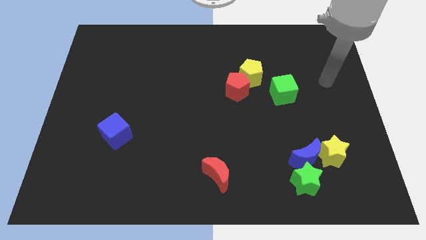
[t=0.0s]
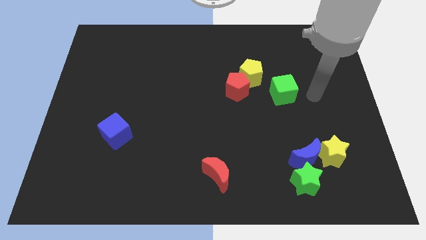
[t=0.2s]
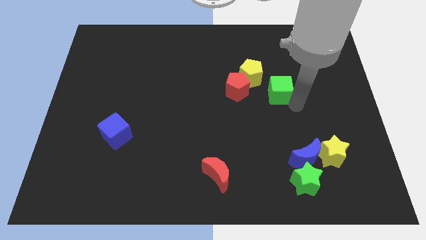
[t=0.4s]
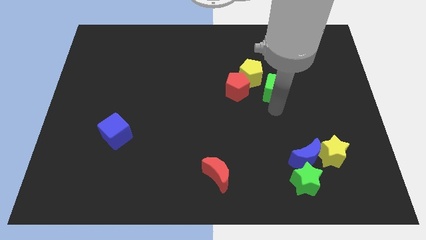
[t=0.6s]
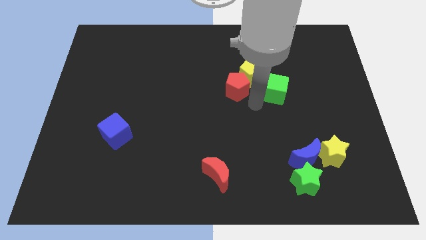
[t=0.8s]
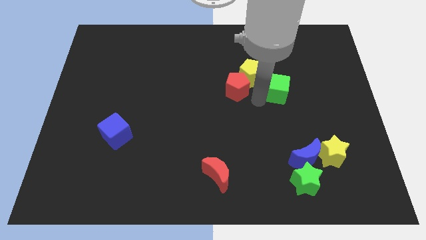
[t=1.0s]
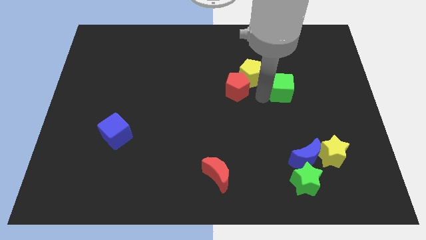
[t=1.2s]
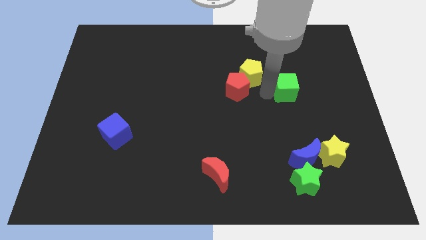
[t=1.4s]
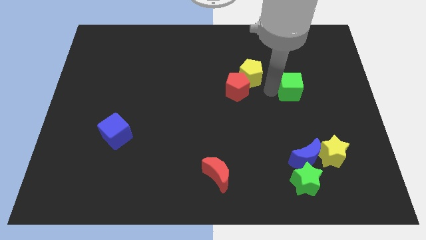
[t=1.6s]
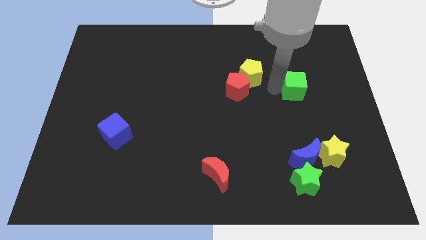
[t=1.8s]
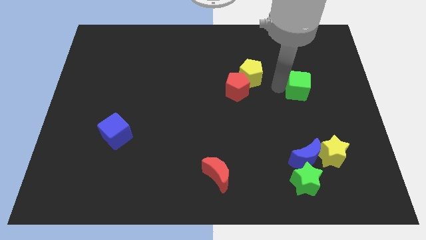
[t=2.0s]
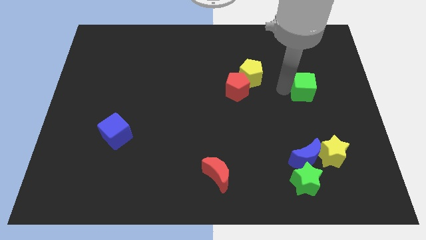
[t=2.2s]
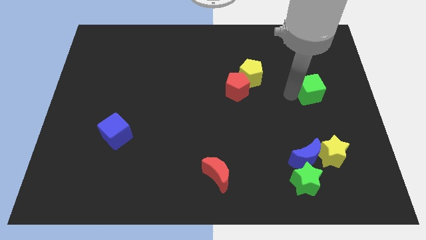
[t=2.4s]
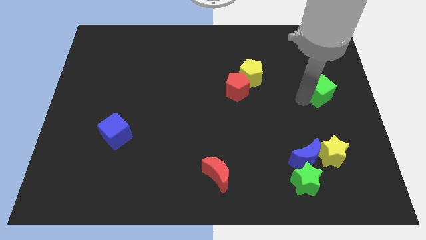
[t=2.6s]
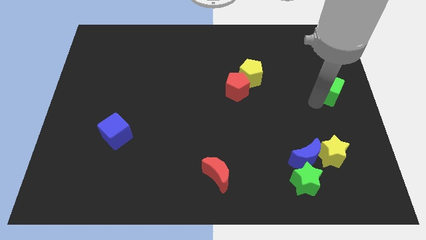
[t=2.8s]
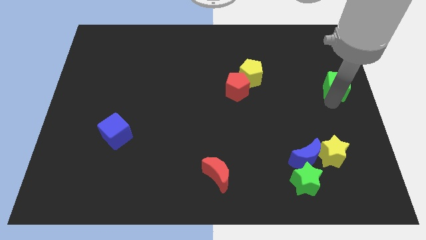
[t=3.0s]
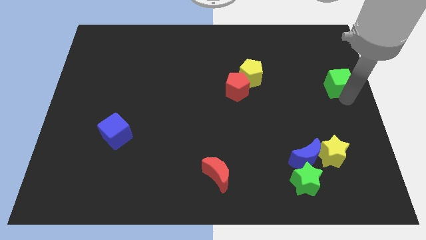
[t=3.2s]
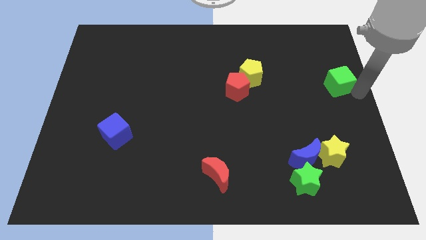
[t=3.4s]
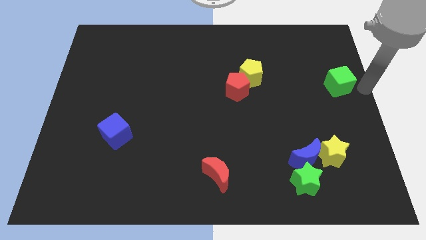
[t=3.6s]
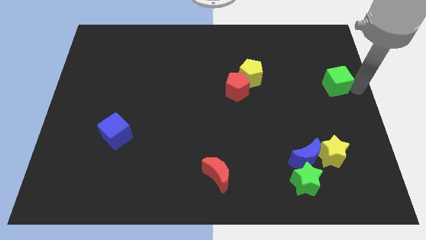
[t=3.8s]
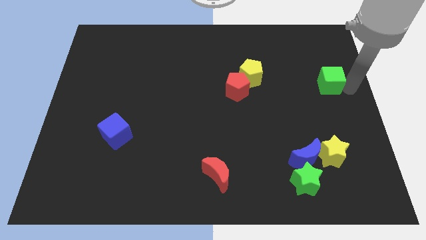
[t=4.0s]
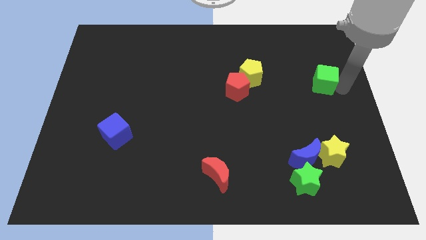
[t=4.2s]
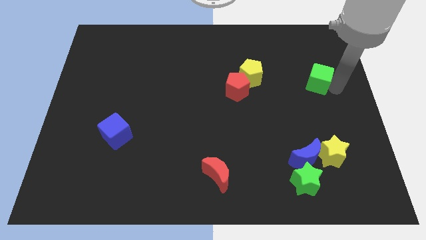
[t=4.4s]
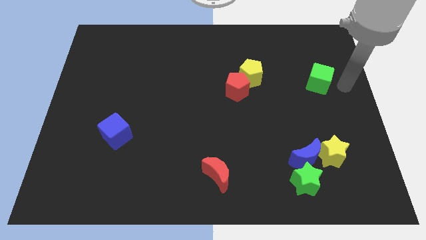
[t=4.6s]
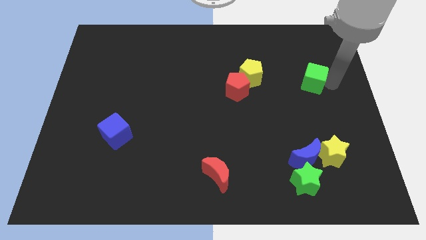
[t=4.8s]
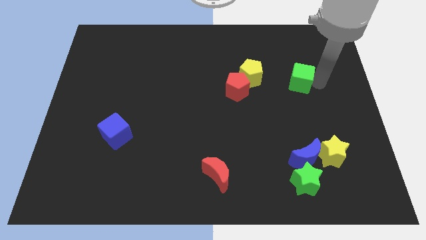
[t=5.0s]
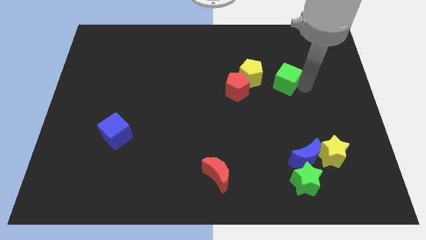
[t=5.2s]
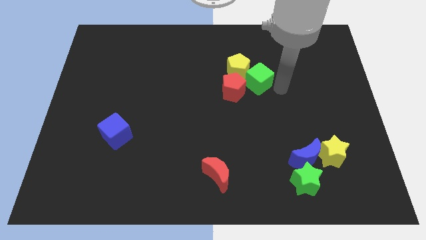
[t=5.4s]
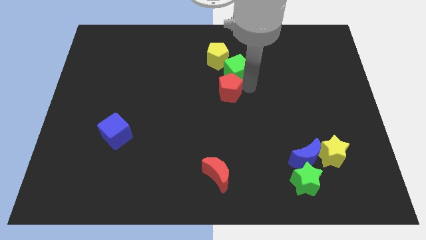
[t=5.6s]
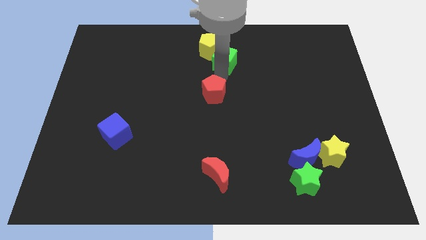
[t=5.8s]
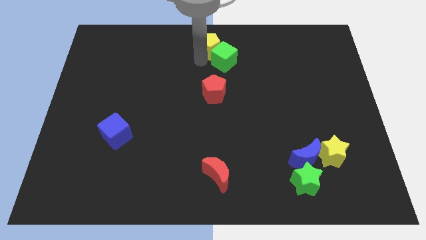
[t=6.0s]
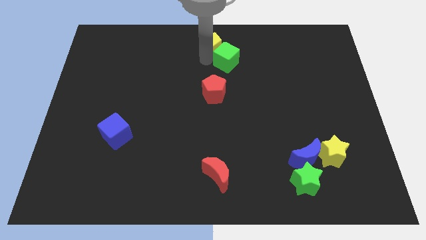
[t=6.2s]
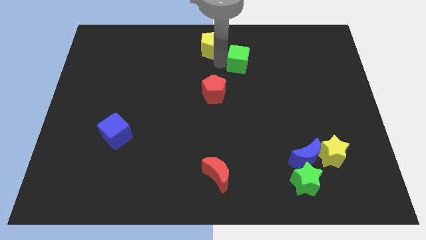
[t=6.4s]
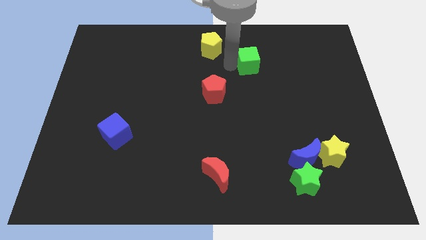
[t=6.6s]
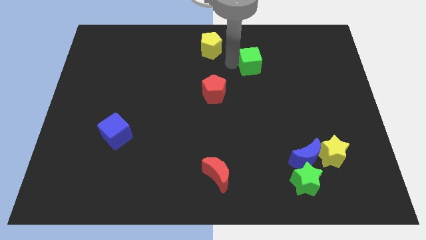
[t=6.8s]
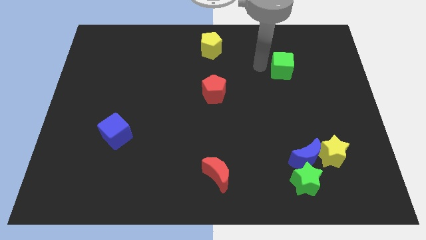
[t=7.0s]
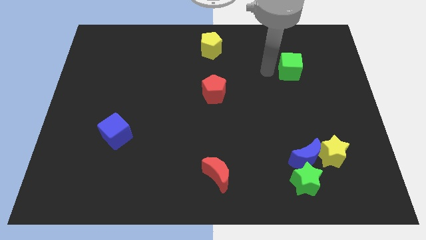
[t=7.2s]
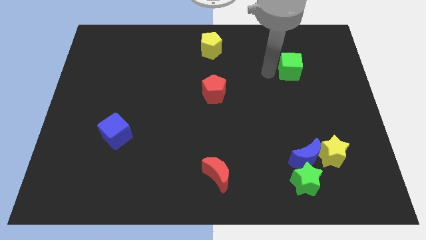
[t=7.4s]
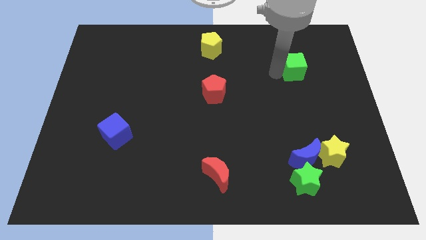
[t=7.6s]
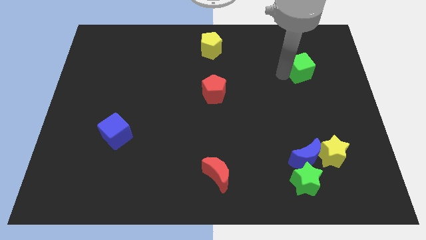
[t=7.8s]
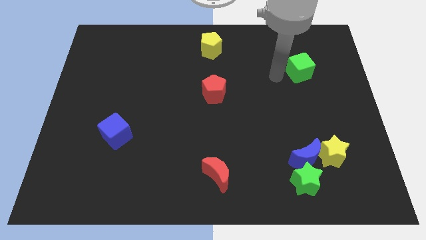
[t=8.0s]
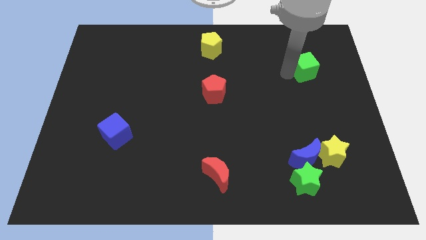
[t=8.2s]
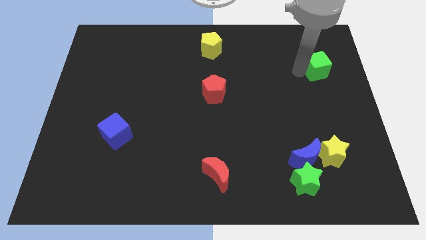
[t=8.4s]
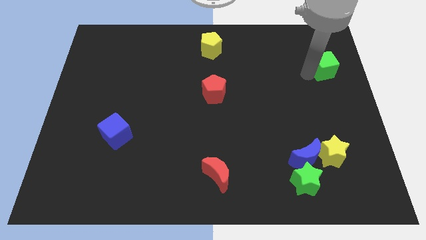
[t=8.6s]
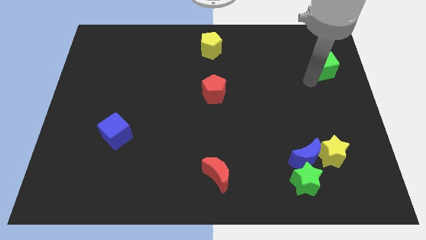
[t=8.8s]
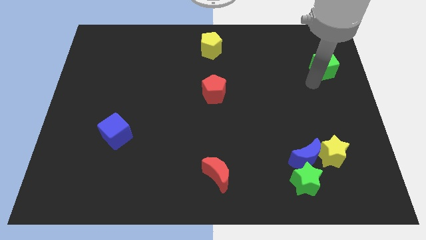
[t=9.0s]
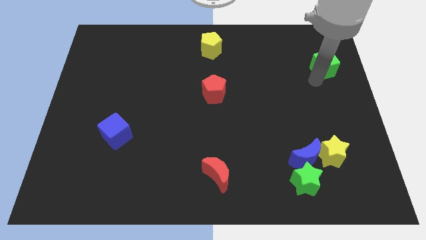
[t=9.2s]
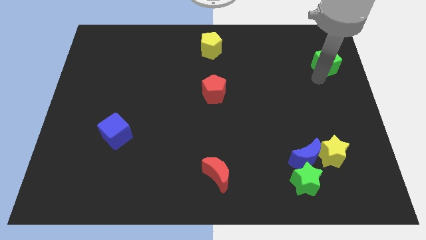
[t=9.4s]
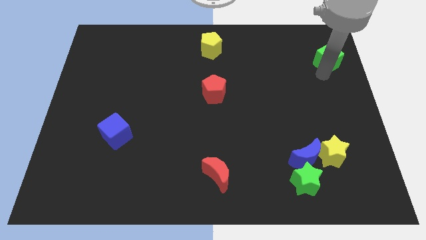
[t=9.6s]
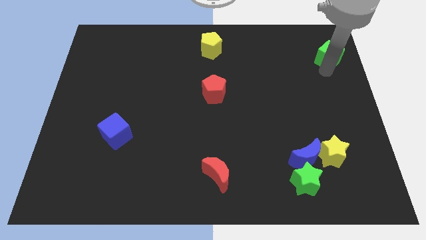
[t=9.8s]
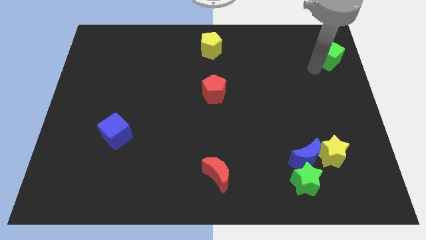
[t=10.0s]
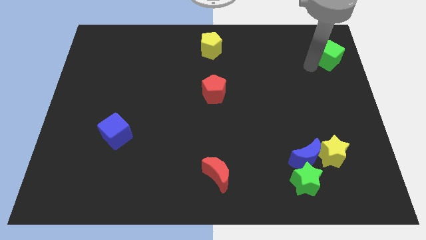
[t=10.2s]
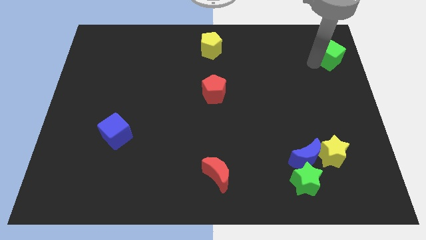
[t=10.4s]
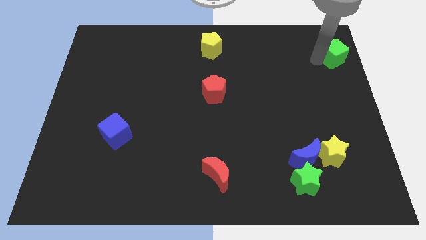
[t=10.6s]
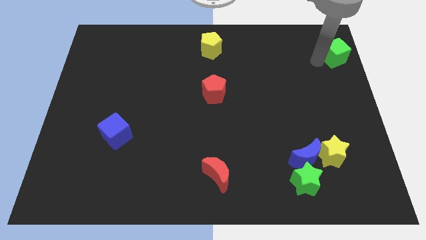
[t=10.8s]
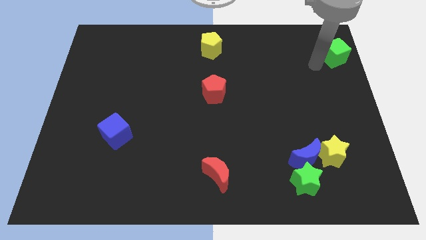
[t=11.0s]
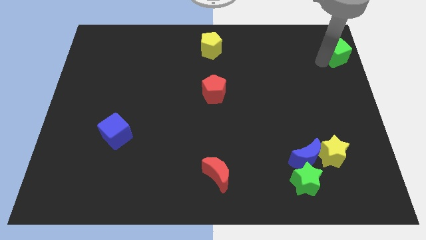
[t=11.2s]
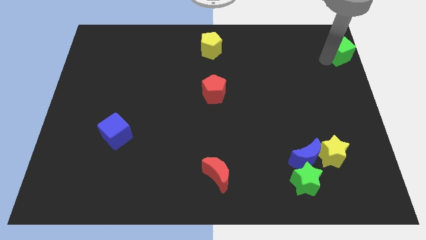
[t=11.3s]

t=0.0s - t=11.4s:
move the green cube to the top right of the board
